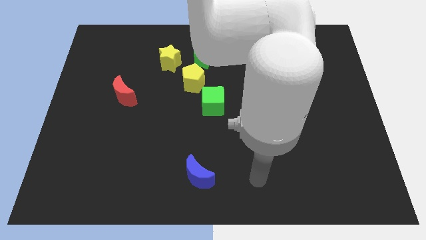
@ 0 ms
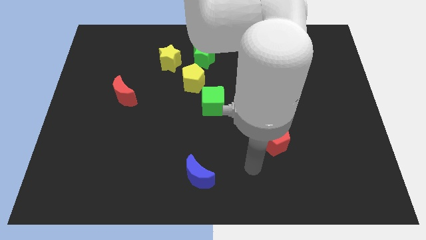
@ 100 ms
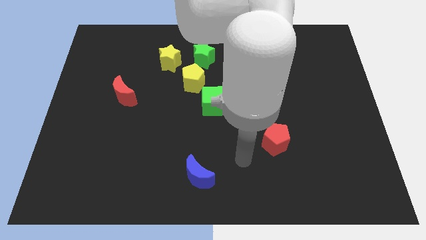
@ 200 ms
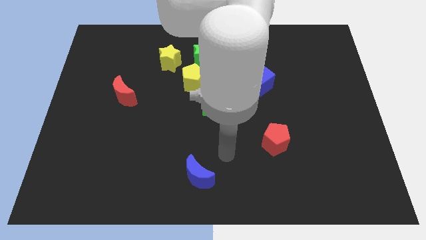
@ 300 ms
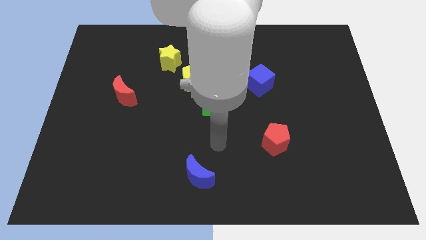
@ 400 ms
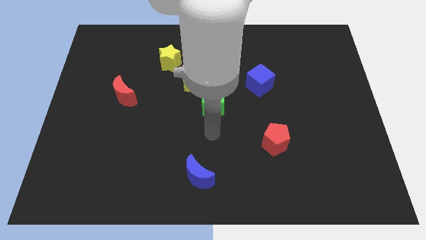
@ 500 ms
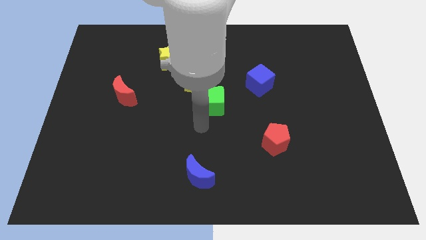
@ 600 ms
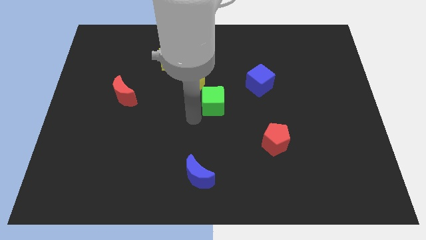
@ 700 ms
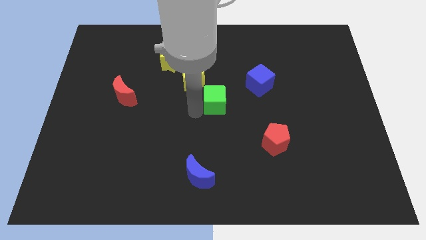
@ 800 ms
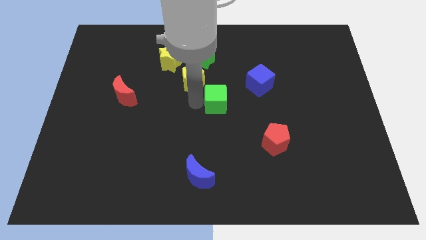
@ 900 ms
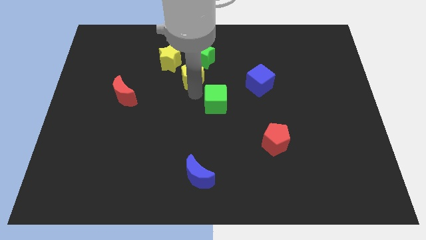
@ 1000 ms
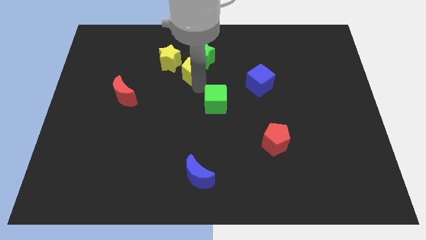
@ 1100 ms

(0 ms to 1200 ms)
separate the green cube from the yellow pentagon

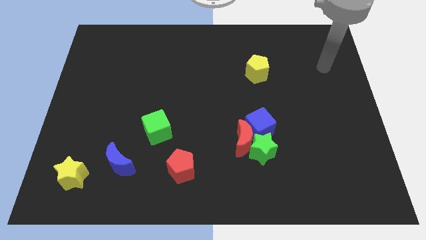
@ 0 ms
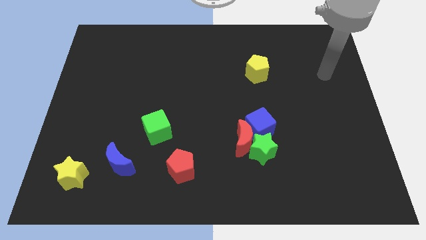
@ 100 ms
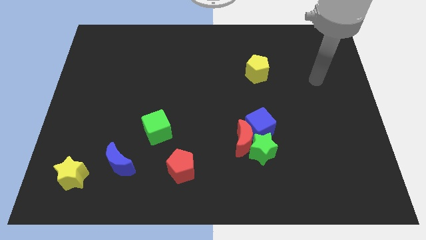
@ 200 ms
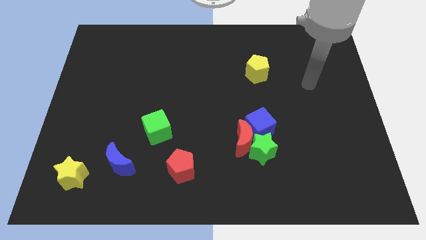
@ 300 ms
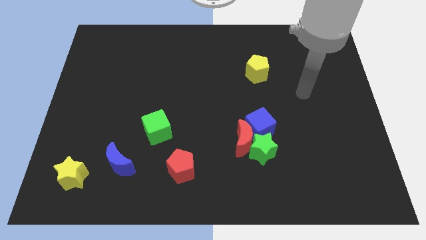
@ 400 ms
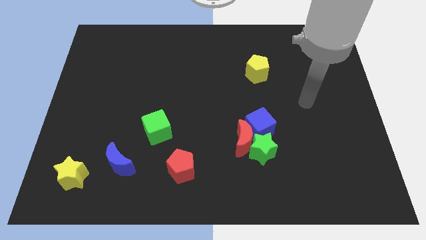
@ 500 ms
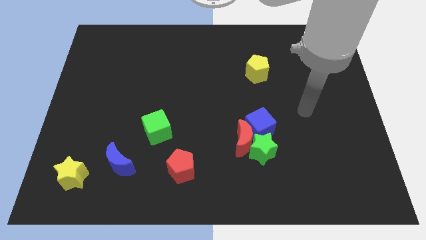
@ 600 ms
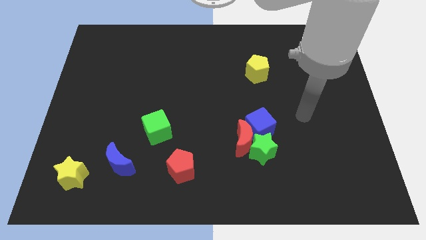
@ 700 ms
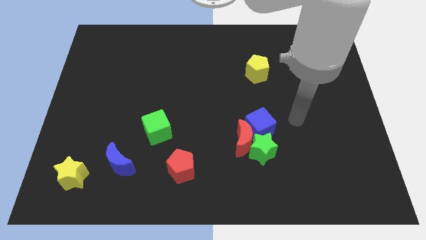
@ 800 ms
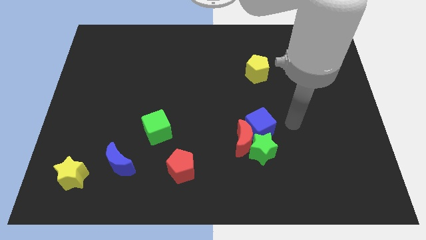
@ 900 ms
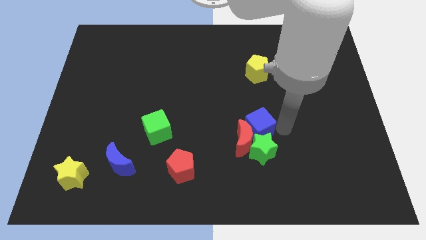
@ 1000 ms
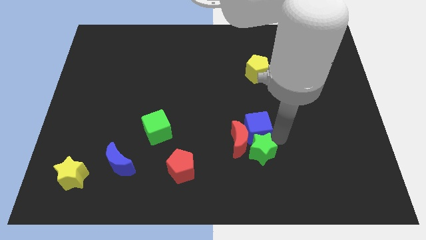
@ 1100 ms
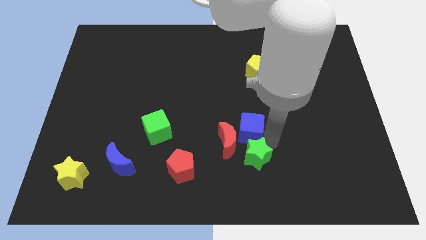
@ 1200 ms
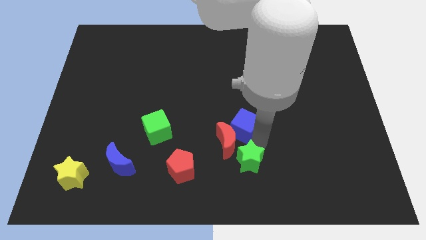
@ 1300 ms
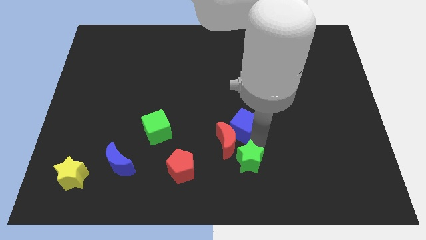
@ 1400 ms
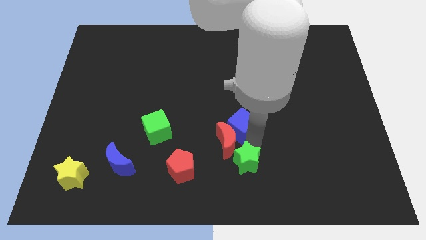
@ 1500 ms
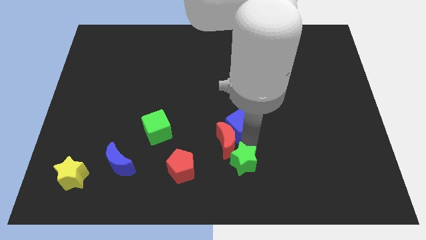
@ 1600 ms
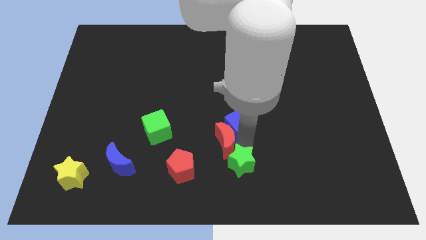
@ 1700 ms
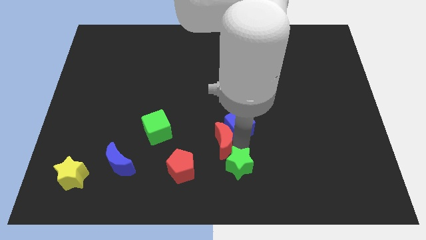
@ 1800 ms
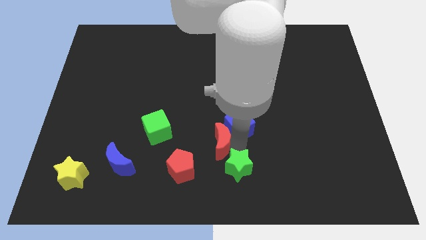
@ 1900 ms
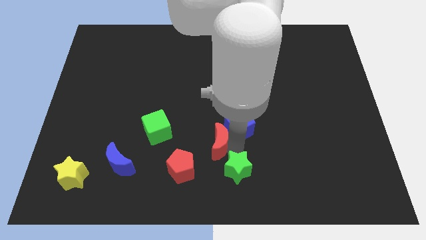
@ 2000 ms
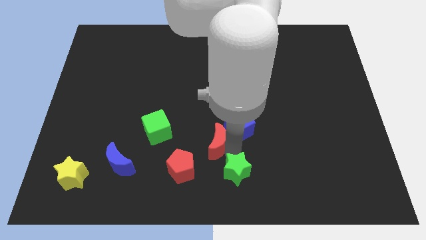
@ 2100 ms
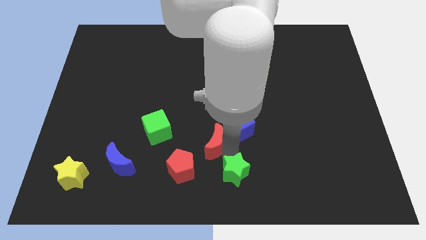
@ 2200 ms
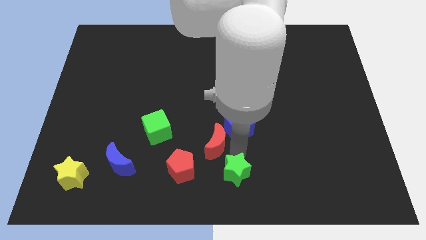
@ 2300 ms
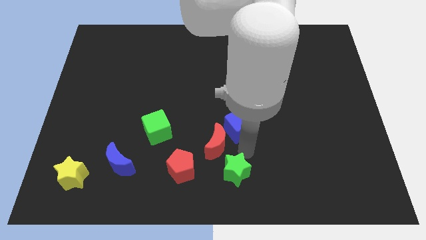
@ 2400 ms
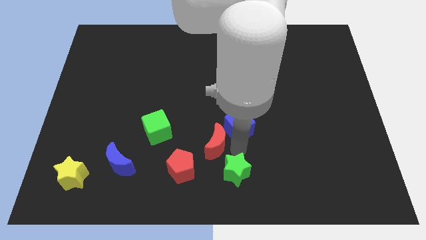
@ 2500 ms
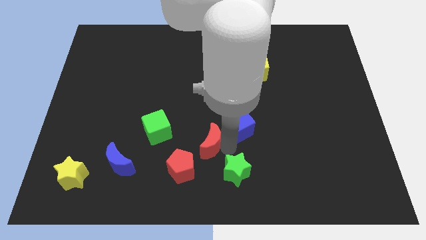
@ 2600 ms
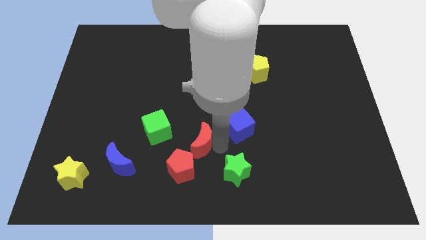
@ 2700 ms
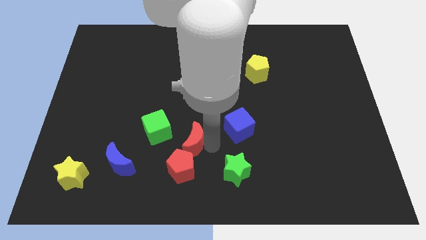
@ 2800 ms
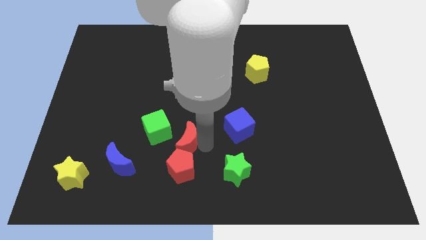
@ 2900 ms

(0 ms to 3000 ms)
move the red moon away from the green star and blue cube

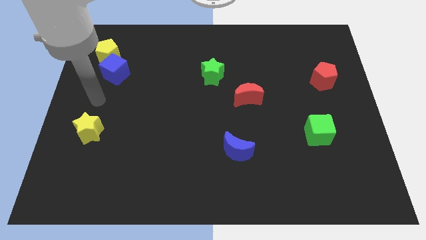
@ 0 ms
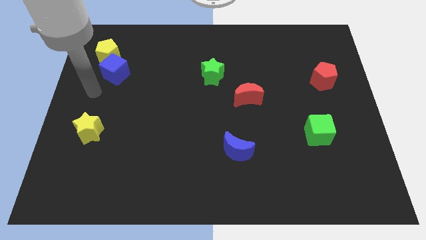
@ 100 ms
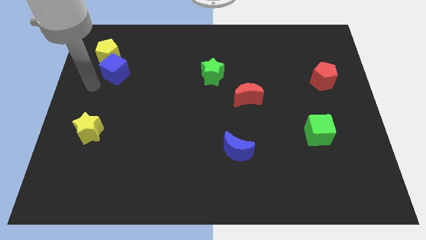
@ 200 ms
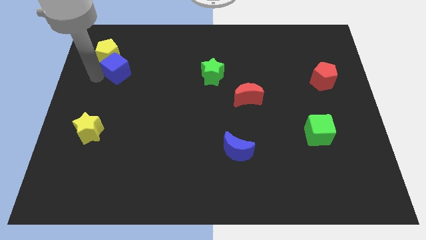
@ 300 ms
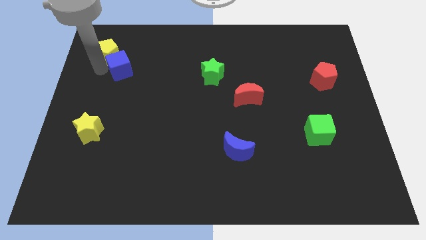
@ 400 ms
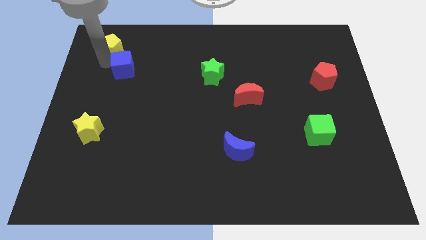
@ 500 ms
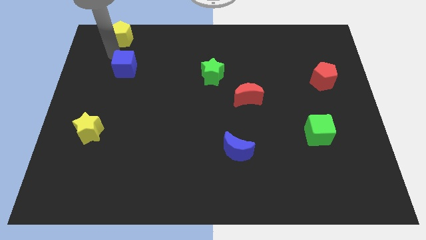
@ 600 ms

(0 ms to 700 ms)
separate the blue cube from the yellow pentagon

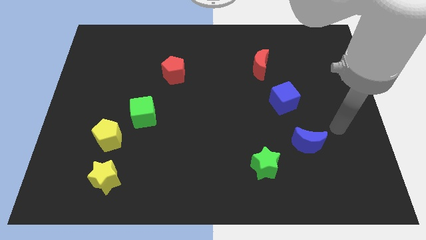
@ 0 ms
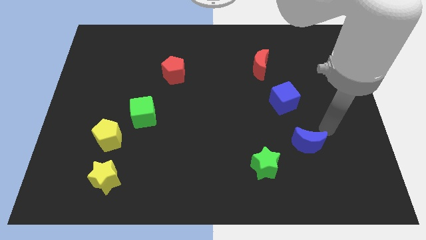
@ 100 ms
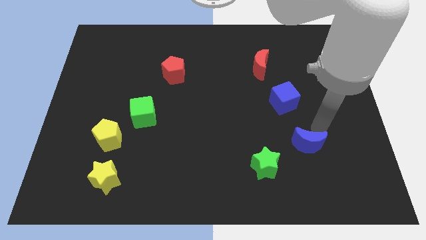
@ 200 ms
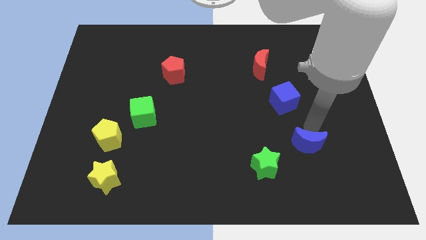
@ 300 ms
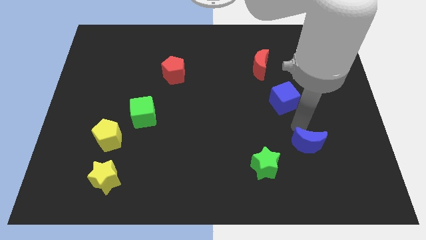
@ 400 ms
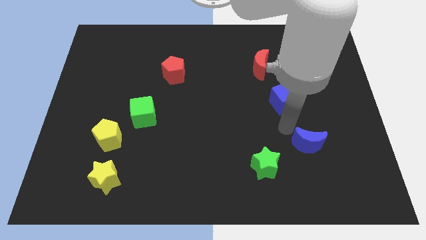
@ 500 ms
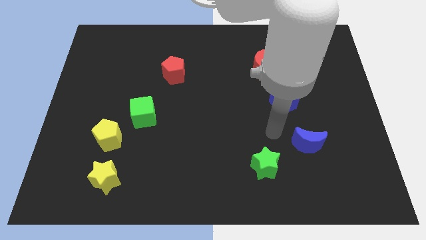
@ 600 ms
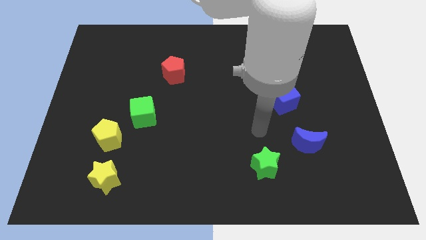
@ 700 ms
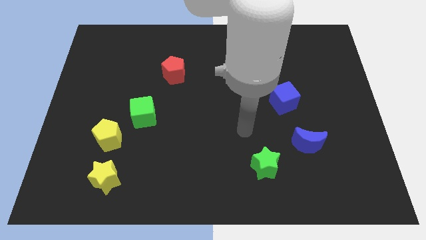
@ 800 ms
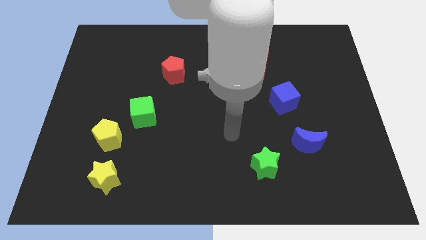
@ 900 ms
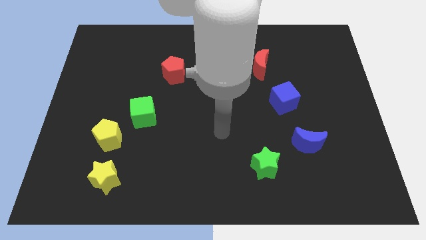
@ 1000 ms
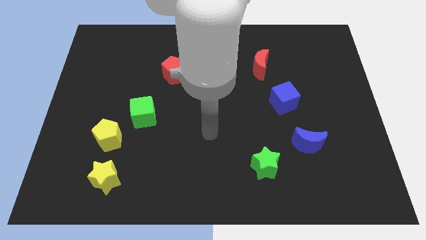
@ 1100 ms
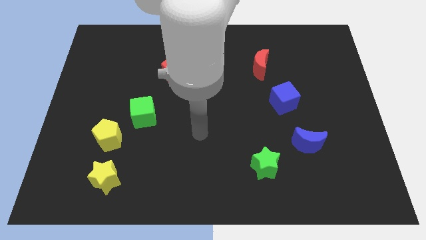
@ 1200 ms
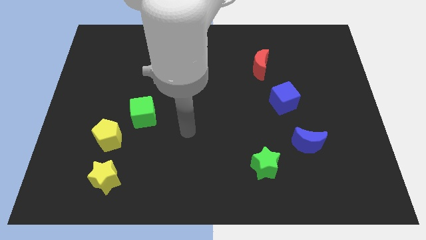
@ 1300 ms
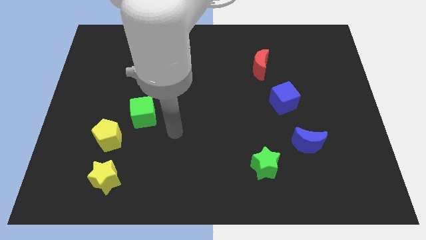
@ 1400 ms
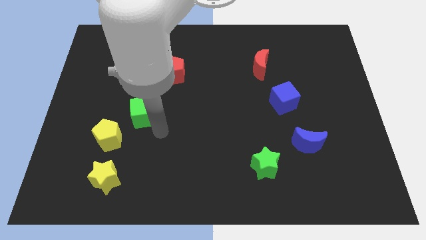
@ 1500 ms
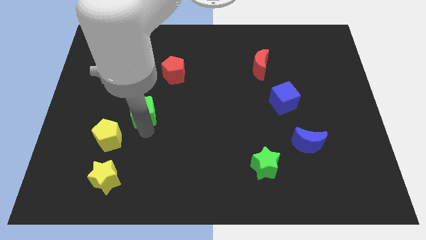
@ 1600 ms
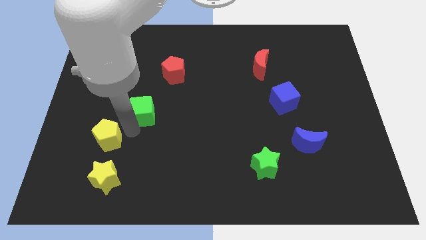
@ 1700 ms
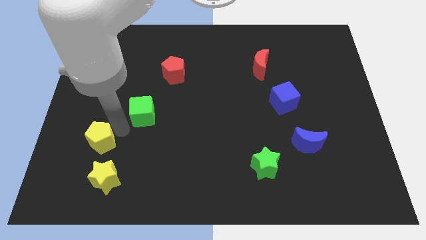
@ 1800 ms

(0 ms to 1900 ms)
pull the green cube apart from the yellow pentagon

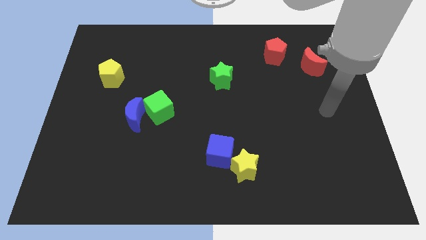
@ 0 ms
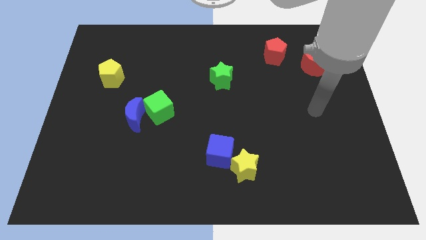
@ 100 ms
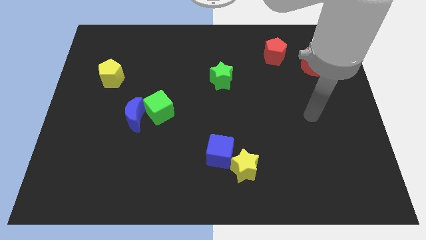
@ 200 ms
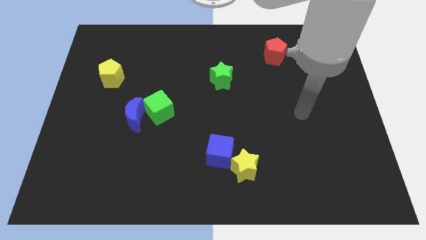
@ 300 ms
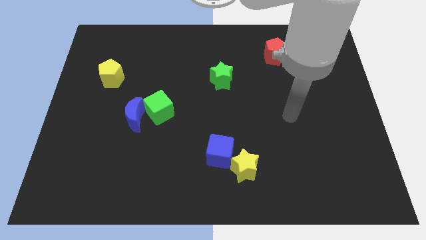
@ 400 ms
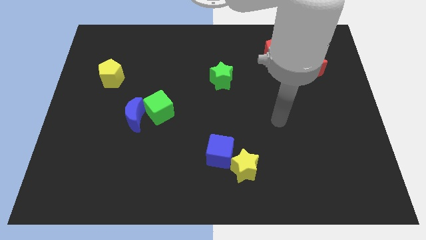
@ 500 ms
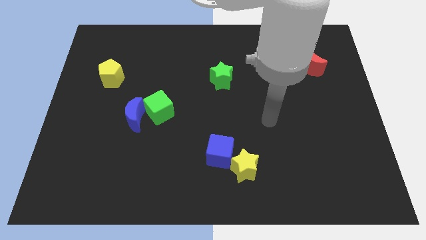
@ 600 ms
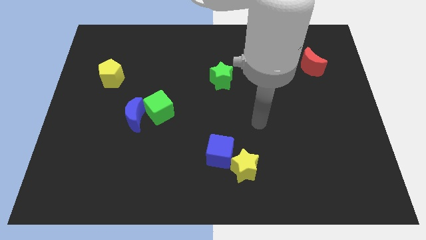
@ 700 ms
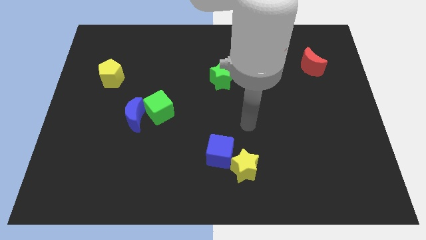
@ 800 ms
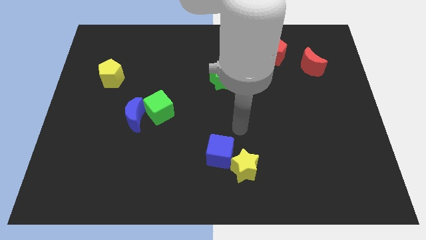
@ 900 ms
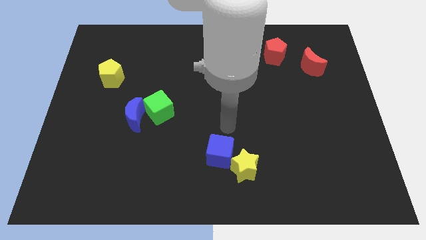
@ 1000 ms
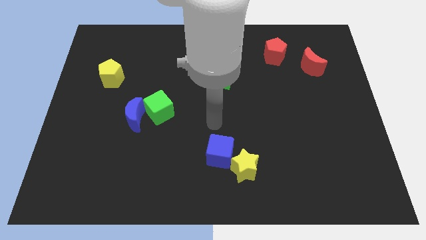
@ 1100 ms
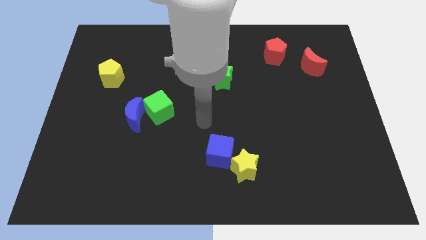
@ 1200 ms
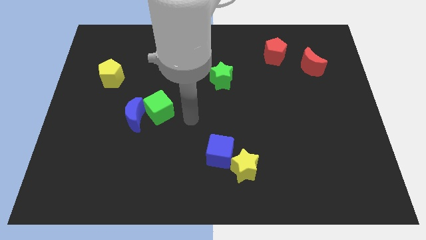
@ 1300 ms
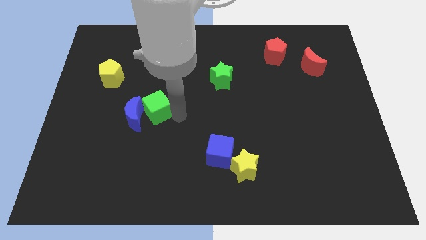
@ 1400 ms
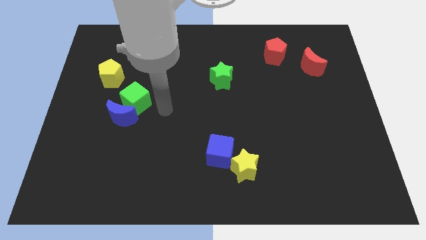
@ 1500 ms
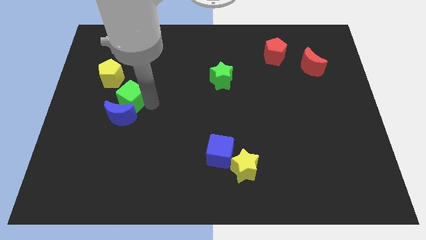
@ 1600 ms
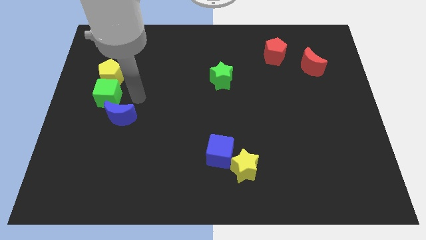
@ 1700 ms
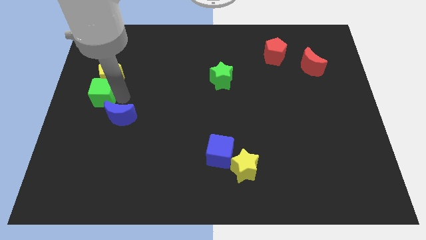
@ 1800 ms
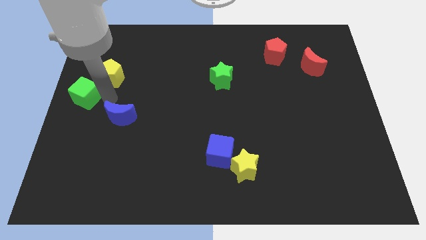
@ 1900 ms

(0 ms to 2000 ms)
move the blue moon away from the green cube

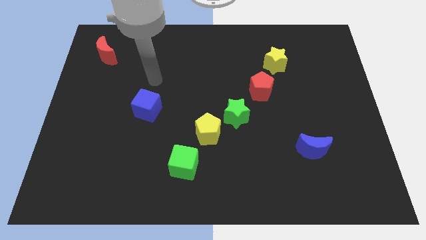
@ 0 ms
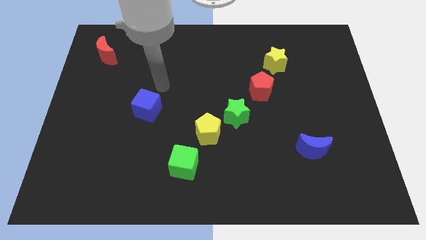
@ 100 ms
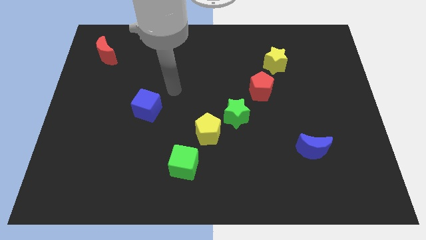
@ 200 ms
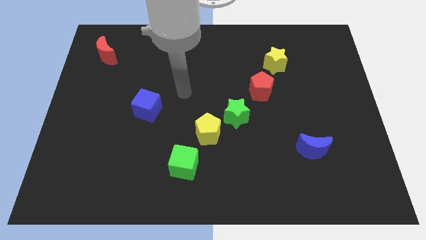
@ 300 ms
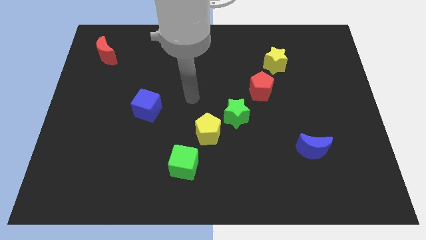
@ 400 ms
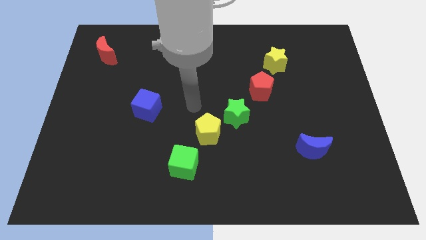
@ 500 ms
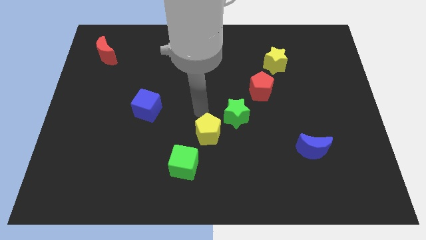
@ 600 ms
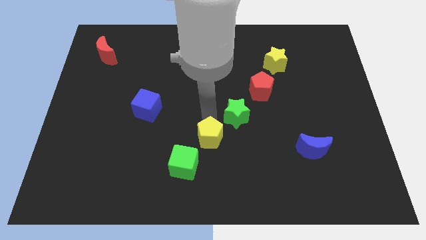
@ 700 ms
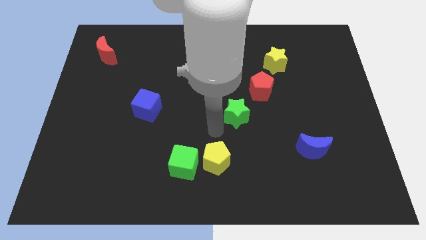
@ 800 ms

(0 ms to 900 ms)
pull the green star apart from the yellow pentagon
